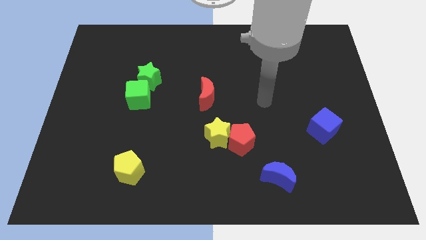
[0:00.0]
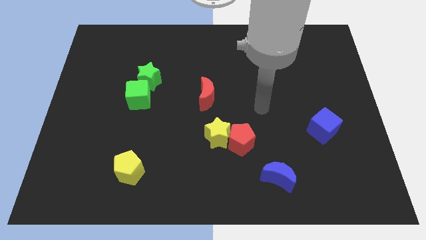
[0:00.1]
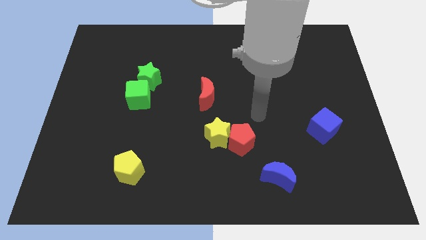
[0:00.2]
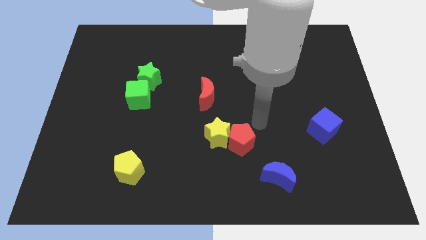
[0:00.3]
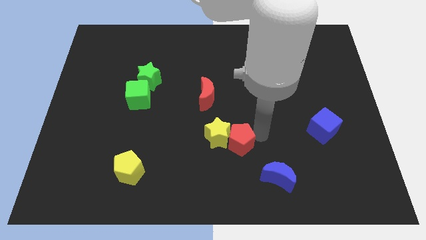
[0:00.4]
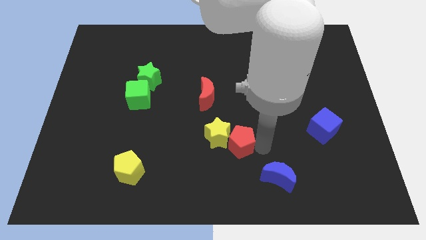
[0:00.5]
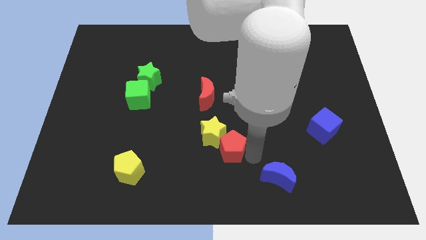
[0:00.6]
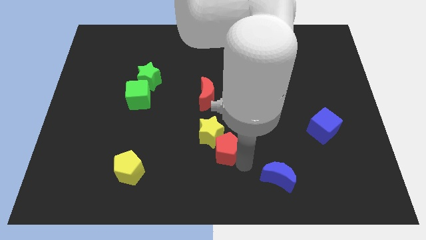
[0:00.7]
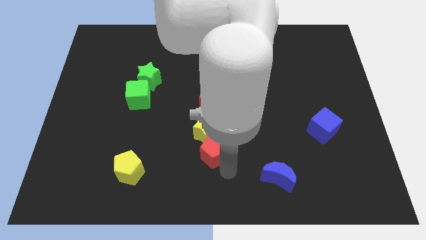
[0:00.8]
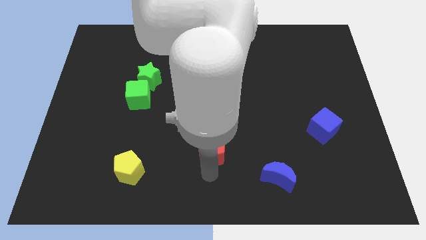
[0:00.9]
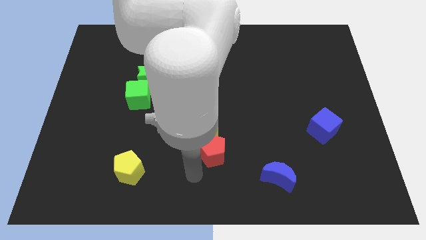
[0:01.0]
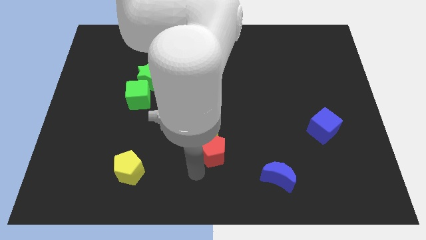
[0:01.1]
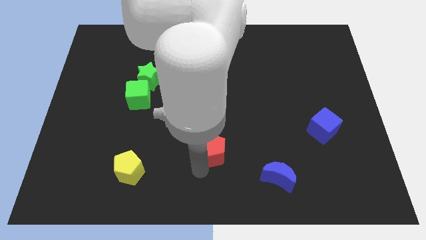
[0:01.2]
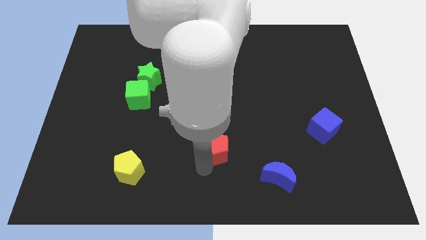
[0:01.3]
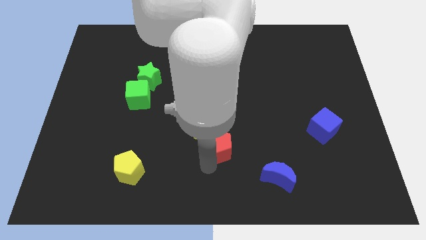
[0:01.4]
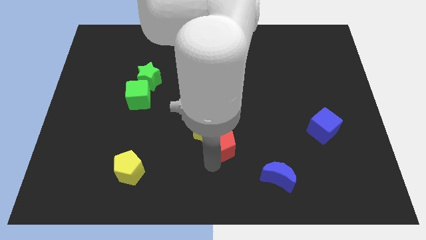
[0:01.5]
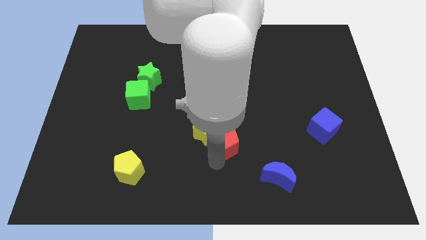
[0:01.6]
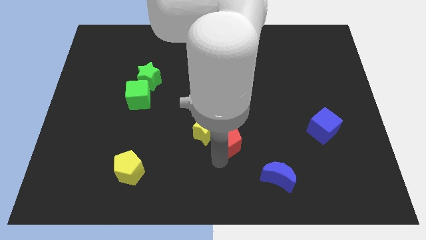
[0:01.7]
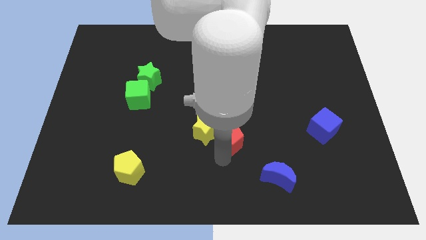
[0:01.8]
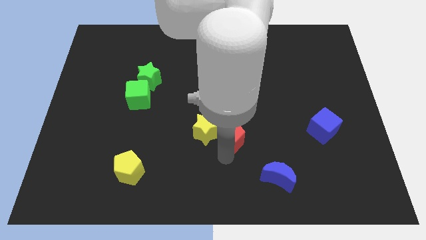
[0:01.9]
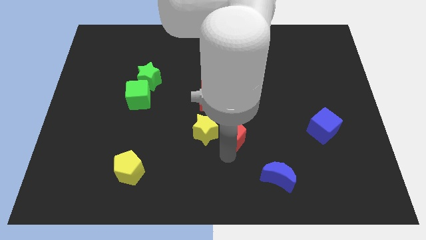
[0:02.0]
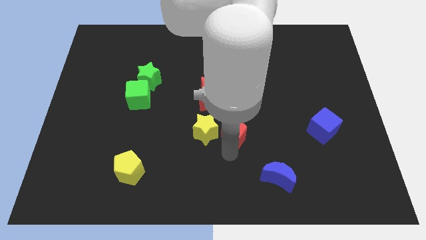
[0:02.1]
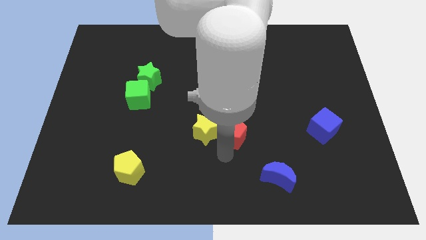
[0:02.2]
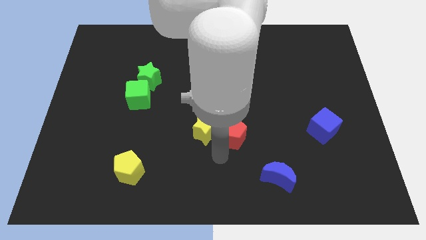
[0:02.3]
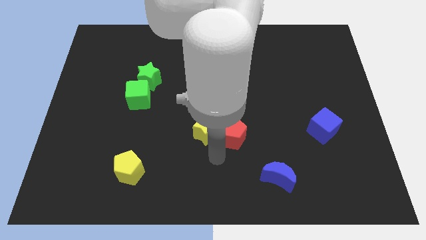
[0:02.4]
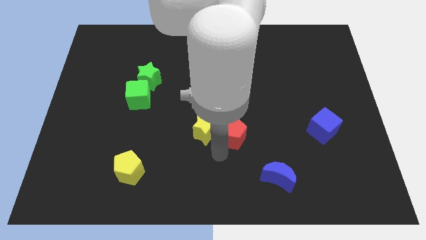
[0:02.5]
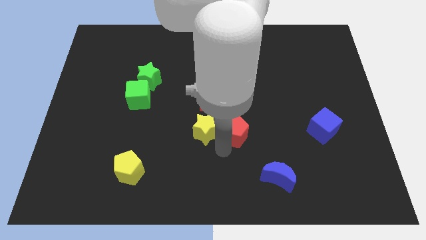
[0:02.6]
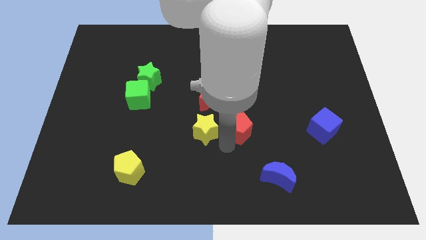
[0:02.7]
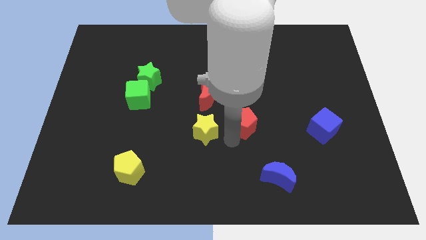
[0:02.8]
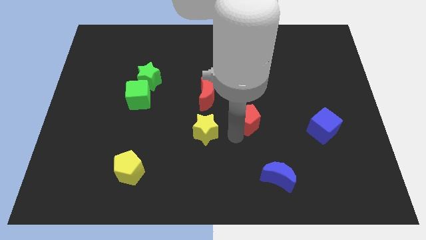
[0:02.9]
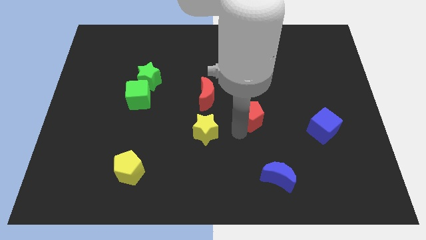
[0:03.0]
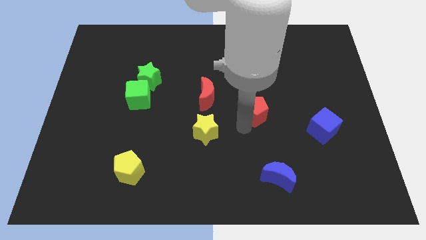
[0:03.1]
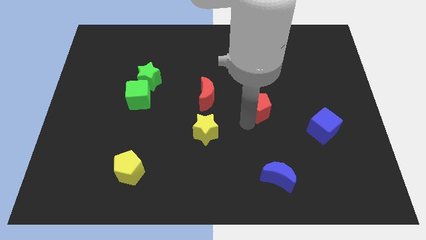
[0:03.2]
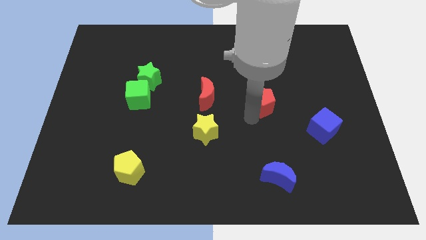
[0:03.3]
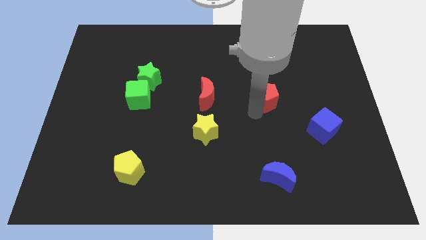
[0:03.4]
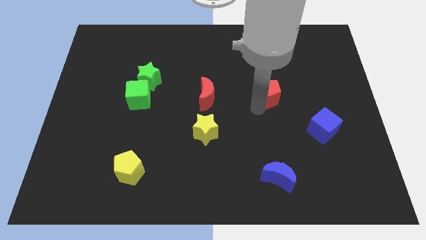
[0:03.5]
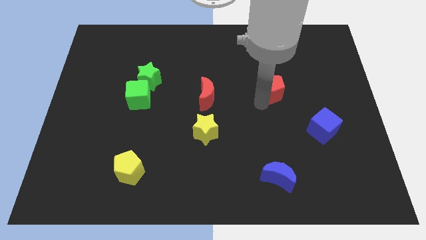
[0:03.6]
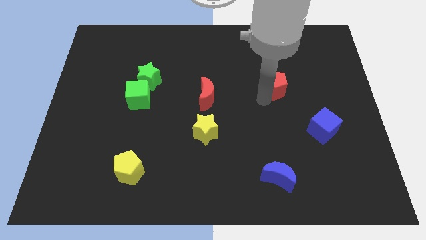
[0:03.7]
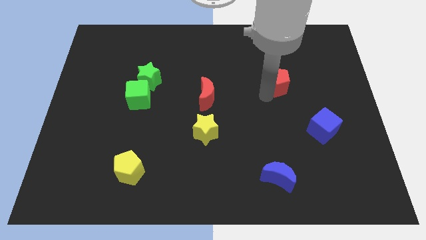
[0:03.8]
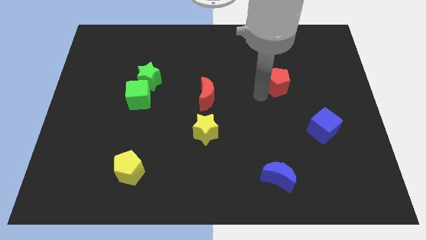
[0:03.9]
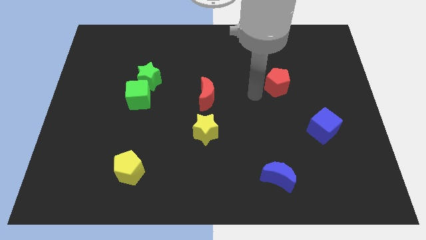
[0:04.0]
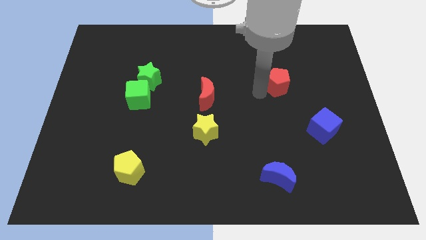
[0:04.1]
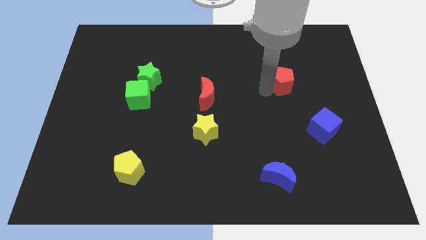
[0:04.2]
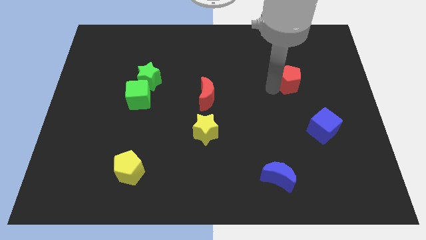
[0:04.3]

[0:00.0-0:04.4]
push the red pentagon up and then right

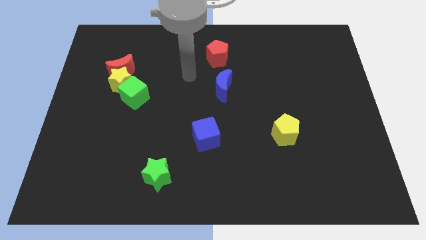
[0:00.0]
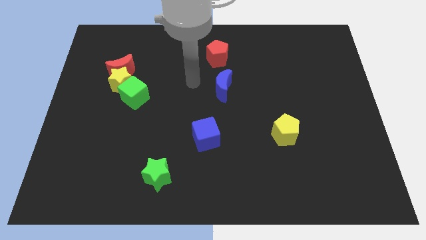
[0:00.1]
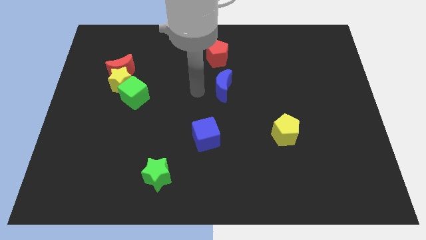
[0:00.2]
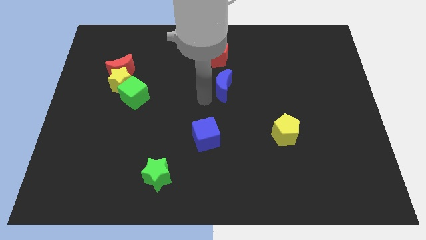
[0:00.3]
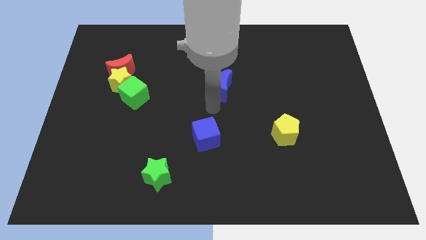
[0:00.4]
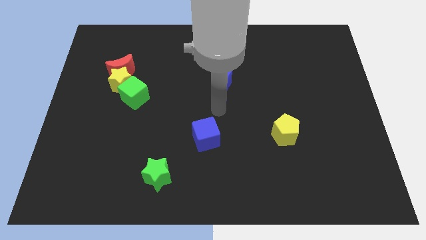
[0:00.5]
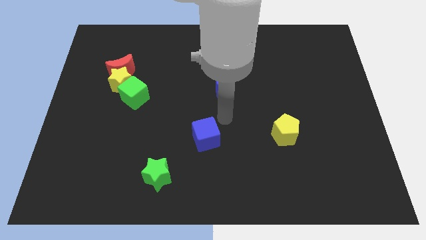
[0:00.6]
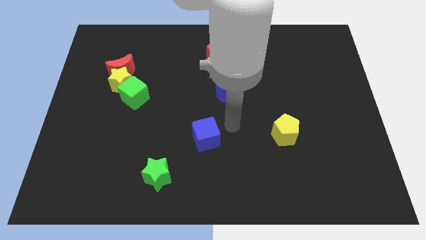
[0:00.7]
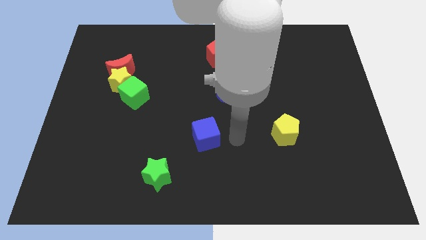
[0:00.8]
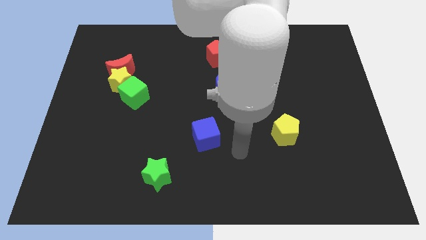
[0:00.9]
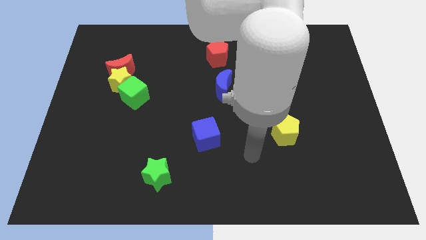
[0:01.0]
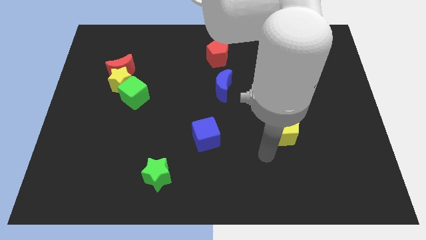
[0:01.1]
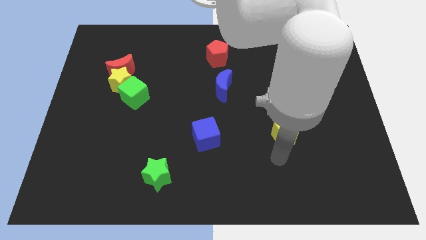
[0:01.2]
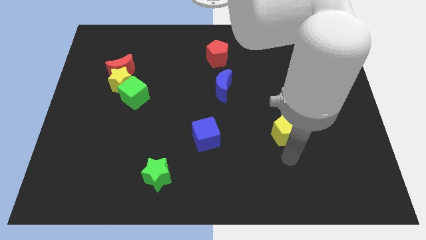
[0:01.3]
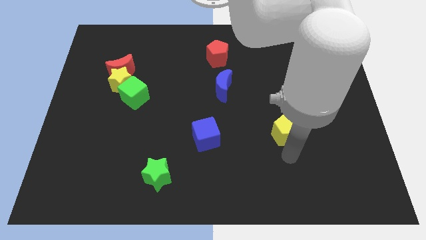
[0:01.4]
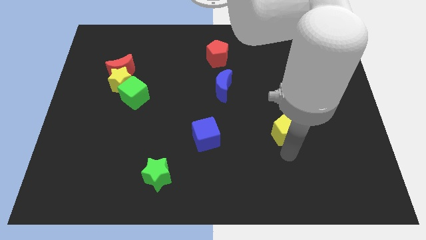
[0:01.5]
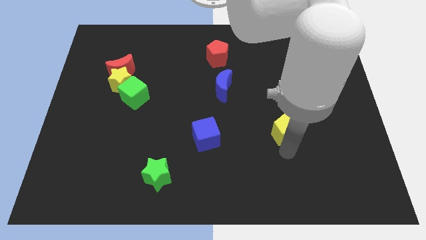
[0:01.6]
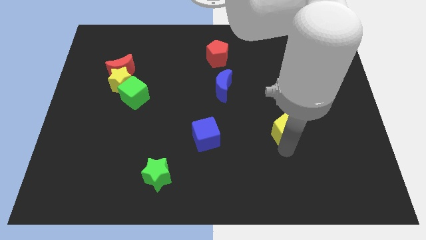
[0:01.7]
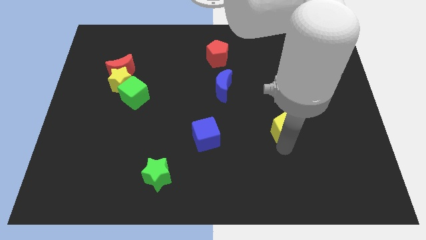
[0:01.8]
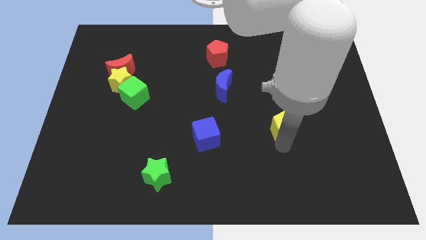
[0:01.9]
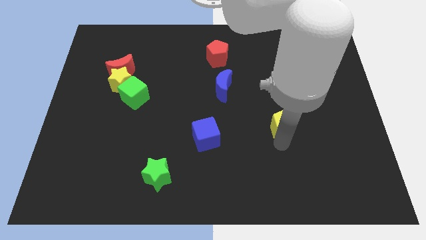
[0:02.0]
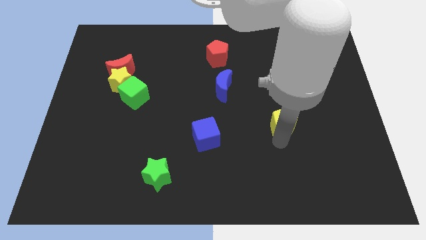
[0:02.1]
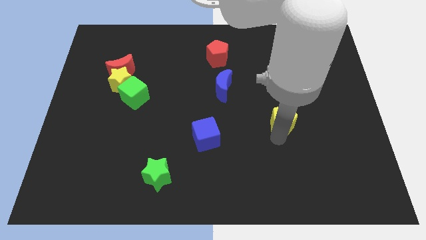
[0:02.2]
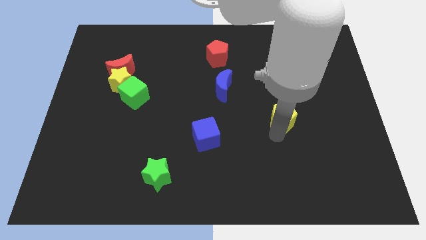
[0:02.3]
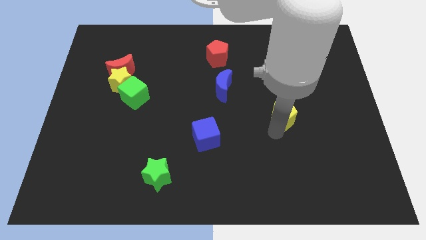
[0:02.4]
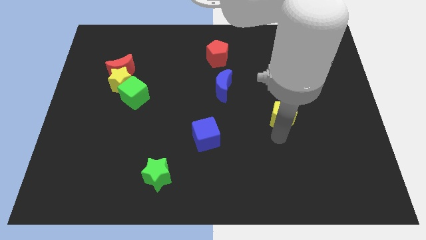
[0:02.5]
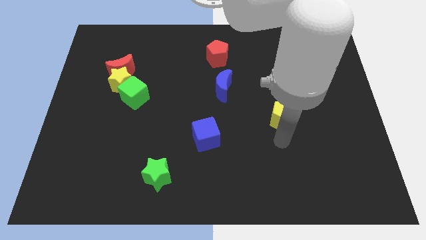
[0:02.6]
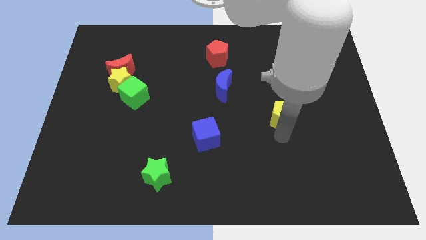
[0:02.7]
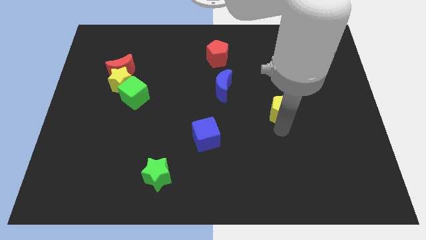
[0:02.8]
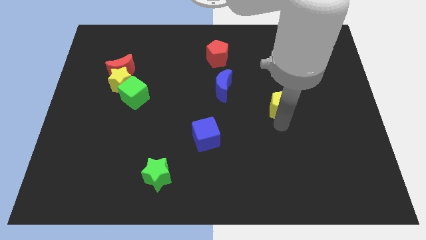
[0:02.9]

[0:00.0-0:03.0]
slide the yellow pentagon upwards somewhat
